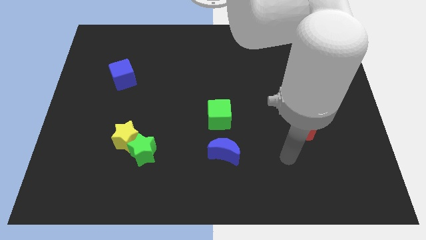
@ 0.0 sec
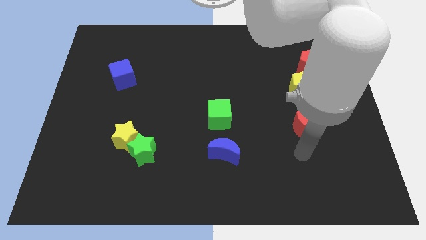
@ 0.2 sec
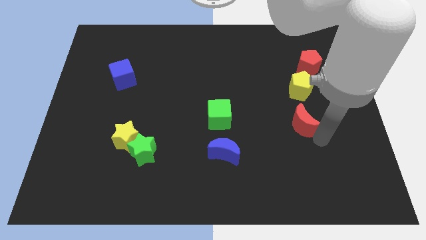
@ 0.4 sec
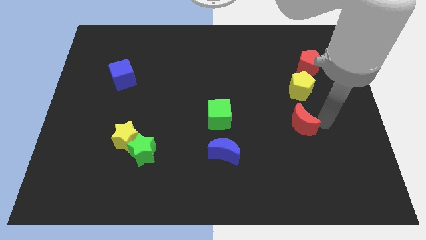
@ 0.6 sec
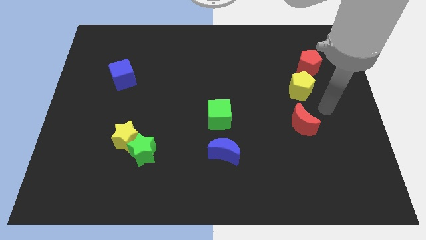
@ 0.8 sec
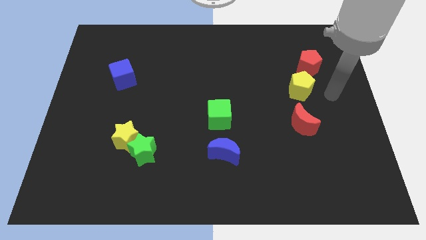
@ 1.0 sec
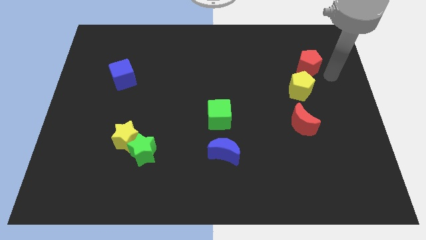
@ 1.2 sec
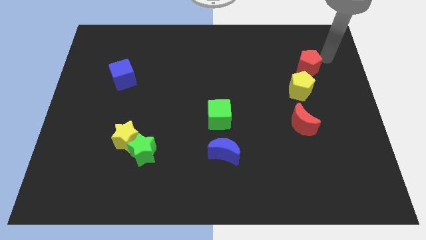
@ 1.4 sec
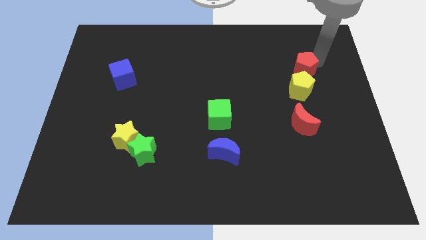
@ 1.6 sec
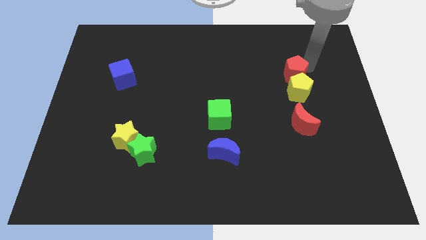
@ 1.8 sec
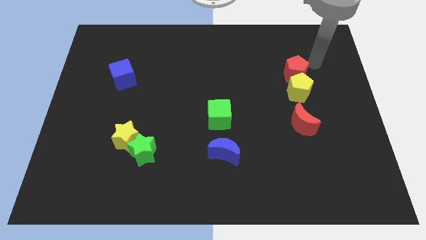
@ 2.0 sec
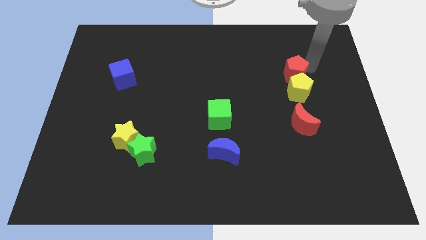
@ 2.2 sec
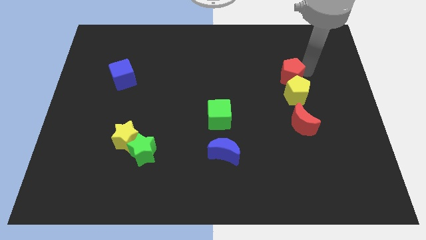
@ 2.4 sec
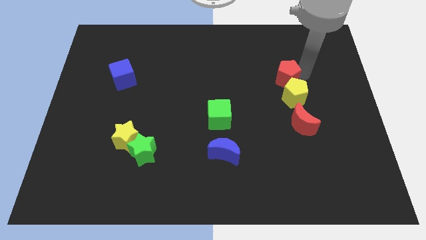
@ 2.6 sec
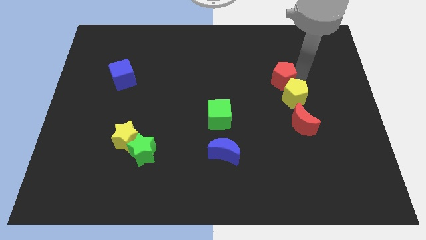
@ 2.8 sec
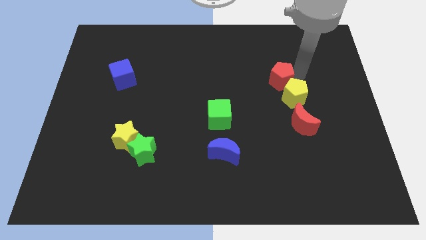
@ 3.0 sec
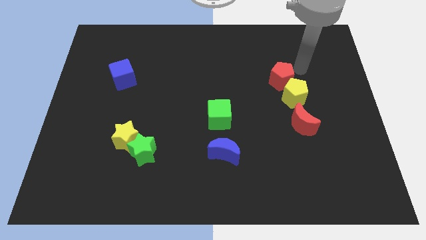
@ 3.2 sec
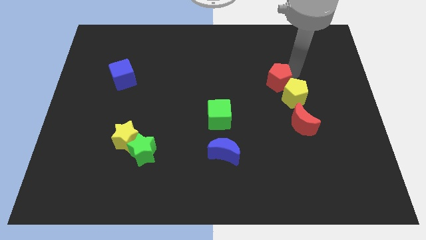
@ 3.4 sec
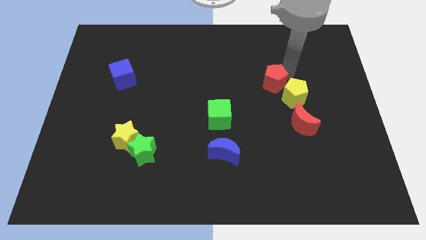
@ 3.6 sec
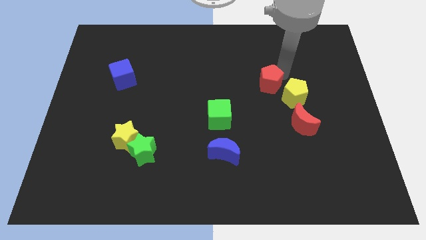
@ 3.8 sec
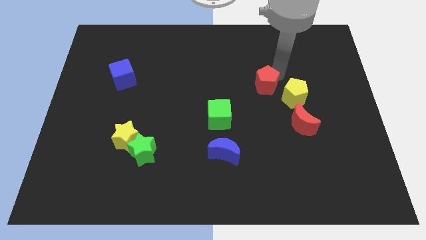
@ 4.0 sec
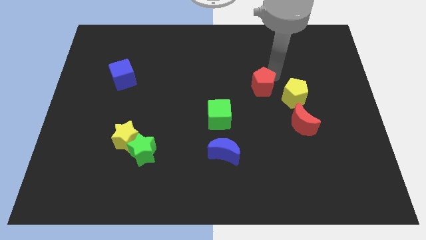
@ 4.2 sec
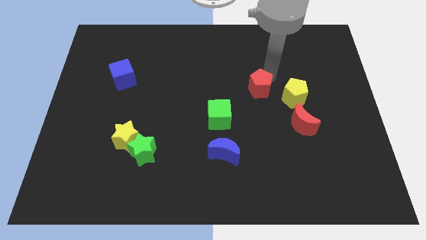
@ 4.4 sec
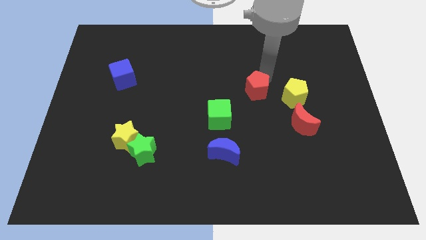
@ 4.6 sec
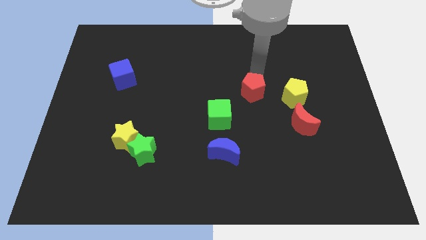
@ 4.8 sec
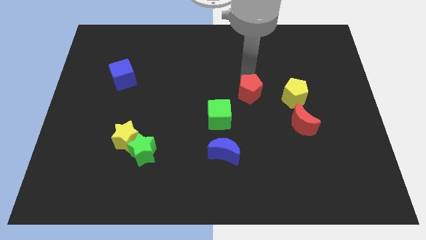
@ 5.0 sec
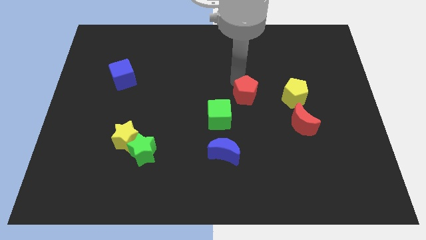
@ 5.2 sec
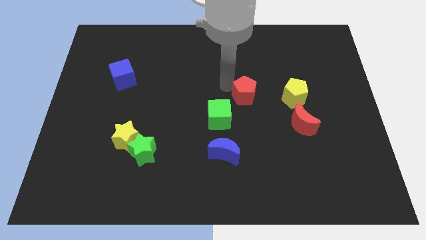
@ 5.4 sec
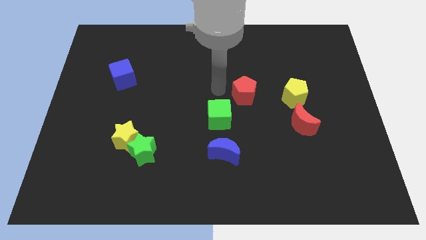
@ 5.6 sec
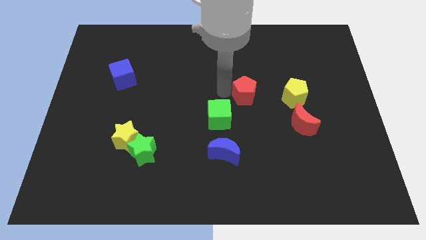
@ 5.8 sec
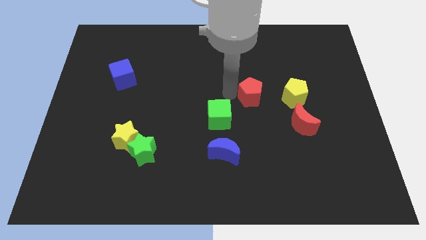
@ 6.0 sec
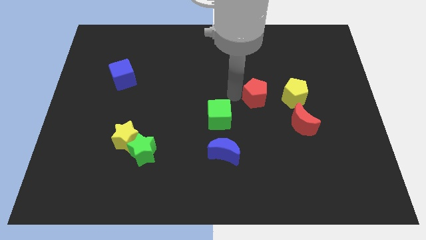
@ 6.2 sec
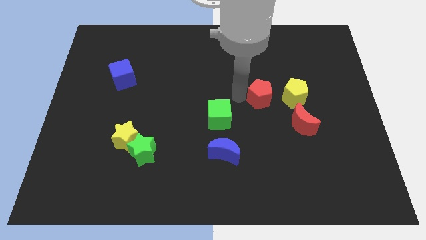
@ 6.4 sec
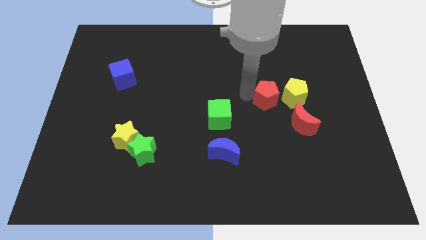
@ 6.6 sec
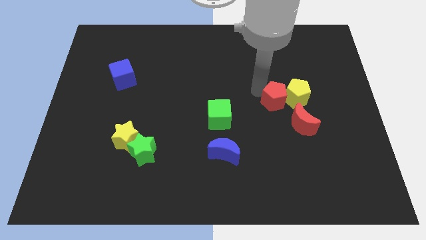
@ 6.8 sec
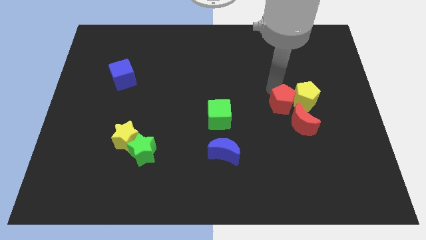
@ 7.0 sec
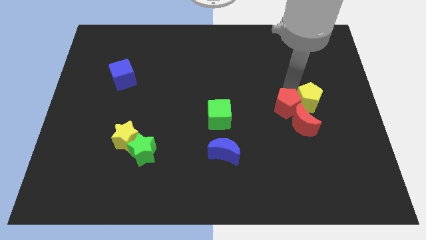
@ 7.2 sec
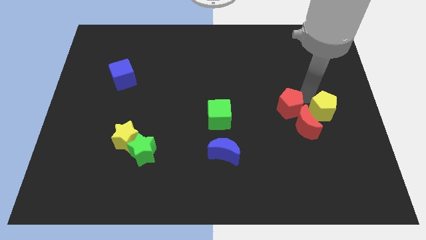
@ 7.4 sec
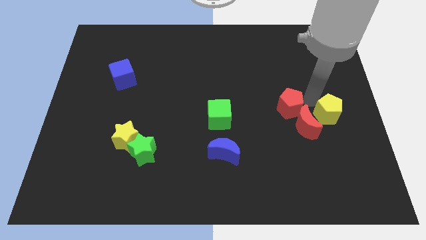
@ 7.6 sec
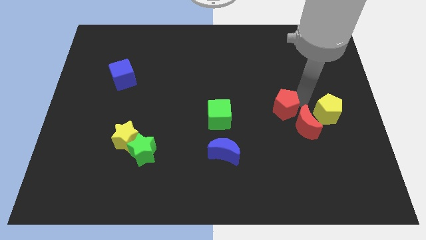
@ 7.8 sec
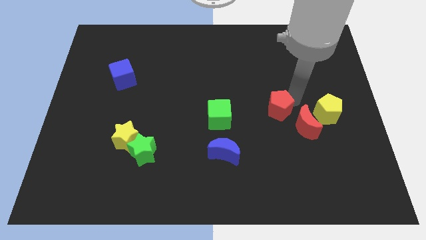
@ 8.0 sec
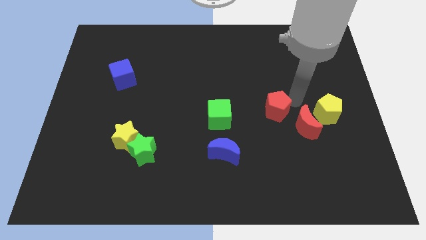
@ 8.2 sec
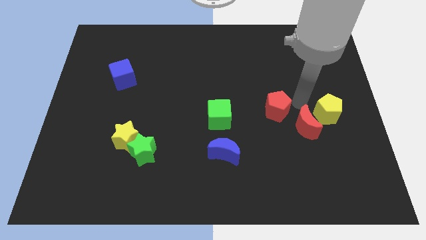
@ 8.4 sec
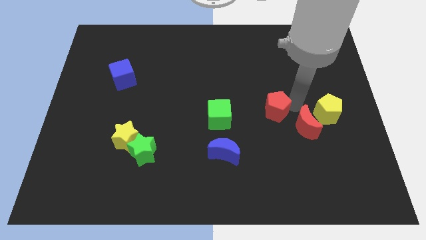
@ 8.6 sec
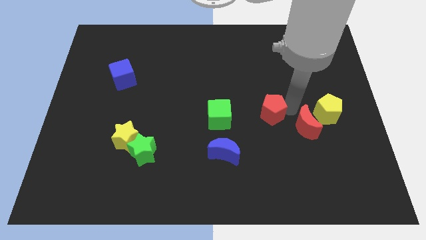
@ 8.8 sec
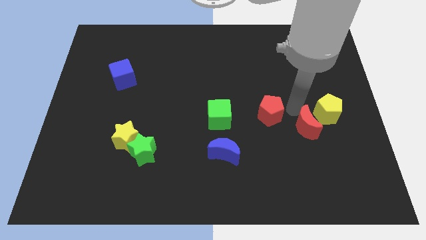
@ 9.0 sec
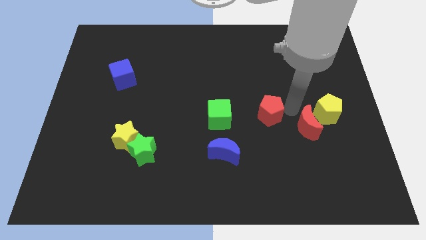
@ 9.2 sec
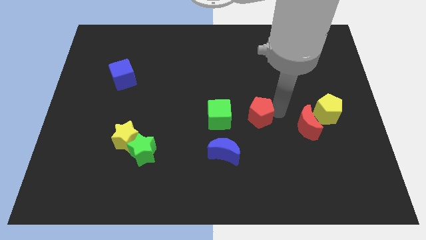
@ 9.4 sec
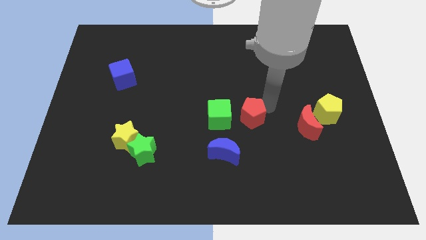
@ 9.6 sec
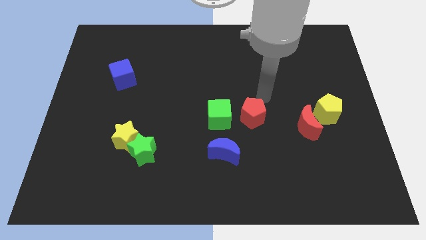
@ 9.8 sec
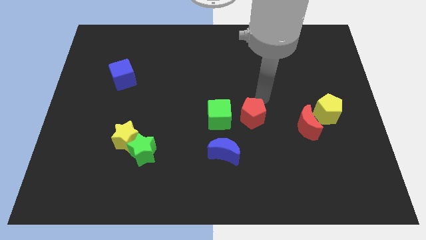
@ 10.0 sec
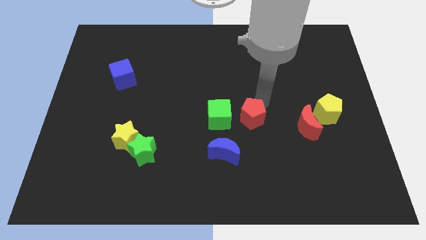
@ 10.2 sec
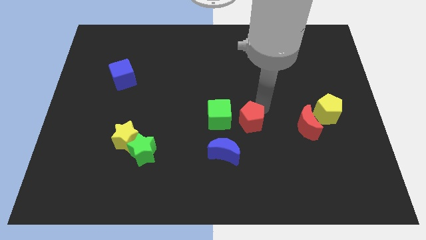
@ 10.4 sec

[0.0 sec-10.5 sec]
push the red pentagon to the bottom right side of the green cube

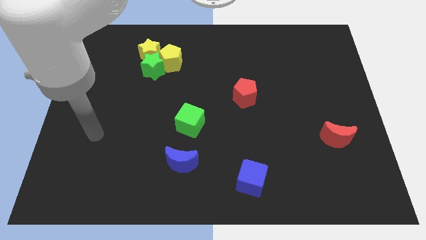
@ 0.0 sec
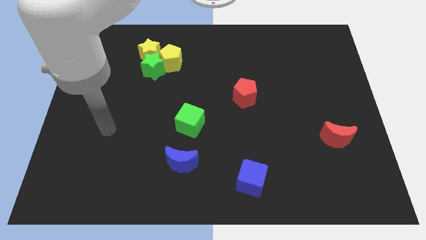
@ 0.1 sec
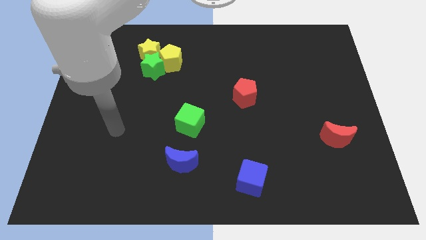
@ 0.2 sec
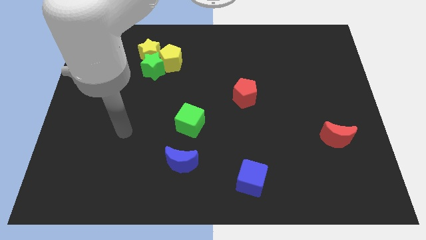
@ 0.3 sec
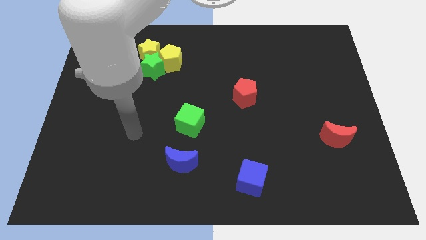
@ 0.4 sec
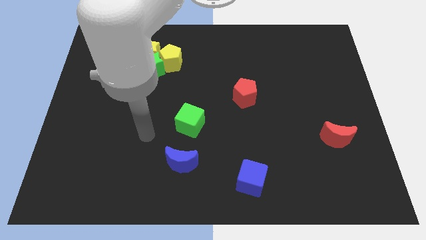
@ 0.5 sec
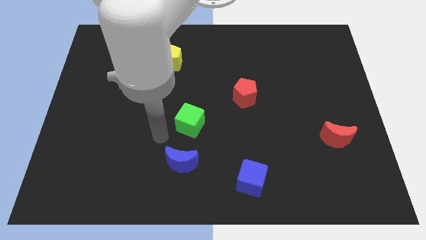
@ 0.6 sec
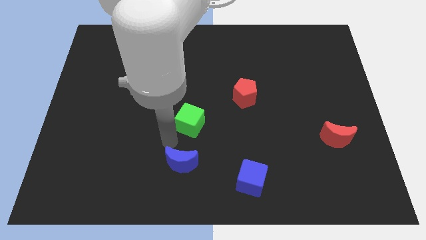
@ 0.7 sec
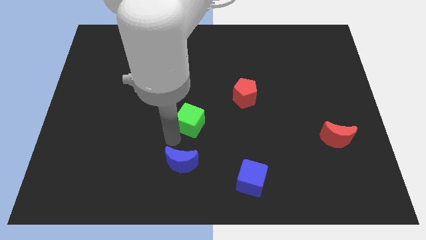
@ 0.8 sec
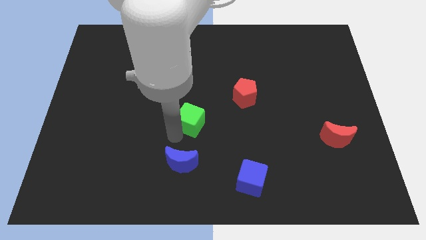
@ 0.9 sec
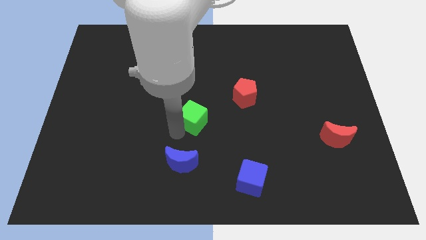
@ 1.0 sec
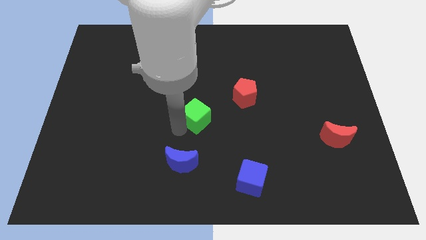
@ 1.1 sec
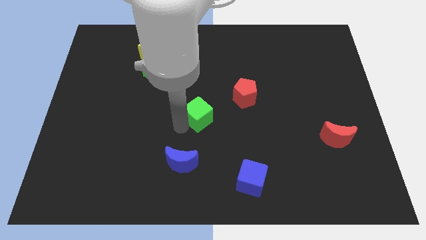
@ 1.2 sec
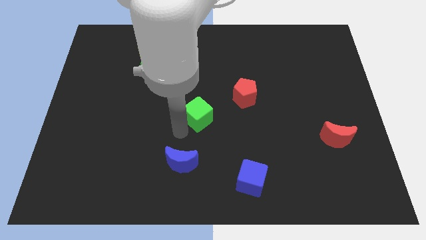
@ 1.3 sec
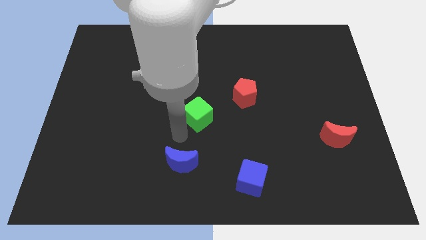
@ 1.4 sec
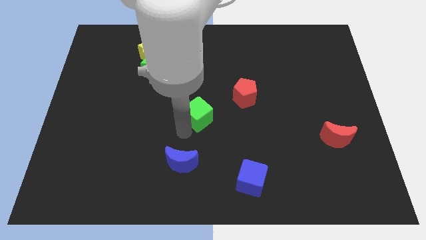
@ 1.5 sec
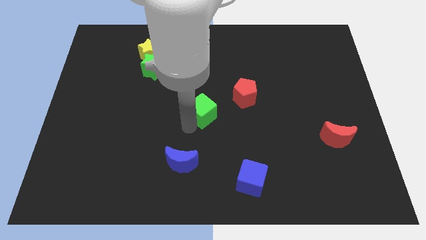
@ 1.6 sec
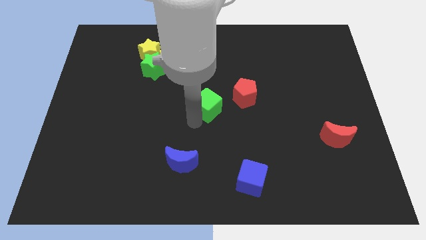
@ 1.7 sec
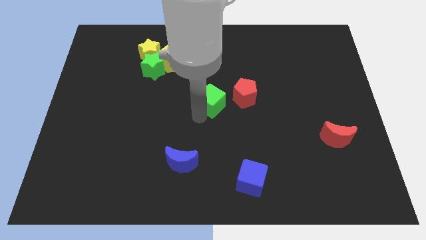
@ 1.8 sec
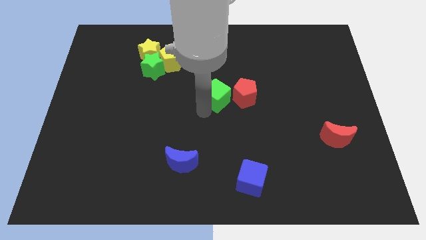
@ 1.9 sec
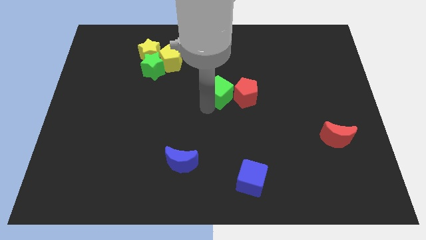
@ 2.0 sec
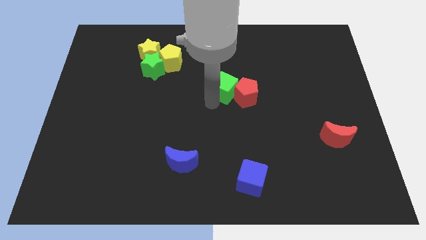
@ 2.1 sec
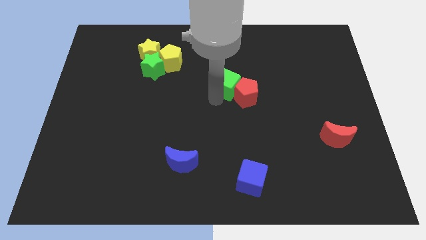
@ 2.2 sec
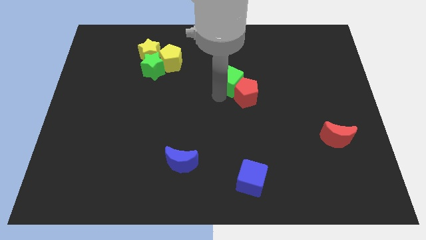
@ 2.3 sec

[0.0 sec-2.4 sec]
slide the green cube to the top side of the red pentagon
